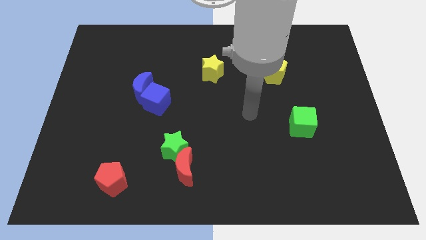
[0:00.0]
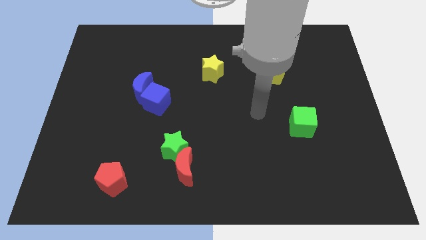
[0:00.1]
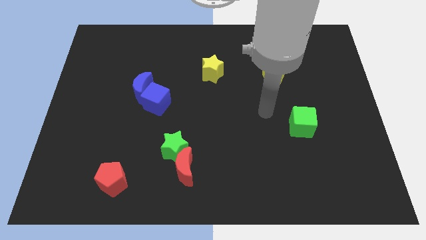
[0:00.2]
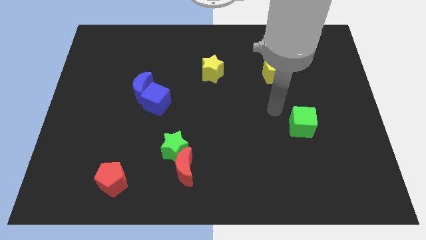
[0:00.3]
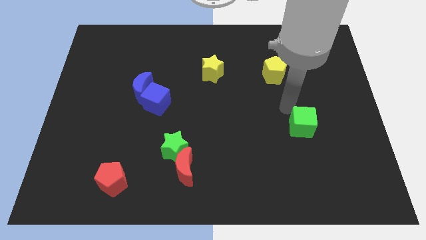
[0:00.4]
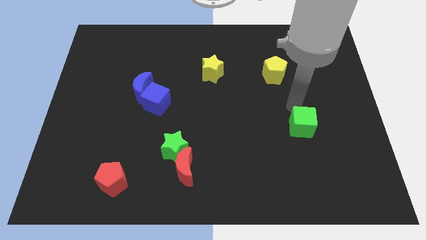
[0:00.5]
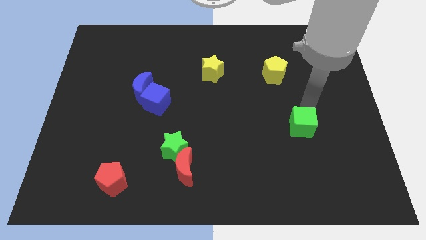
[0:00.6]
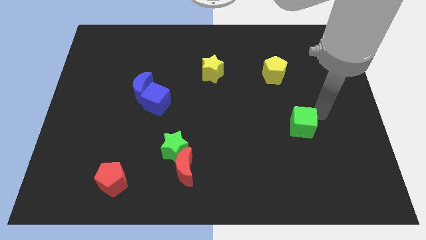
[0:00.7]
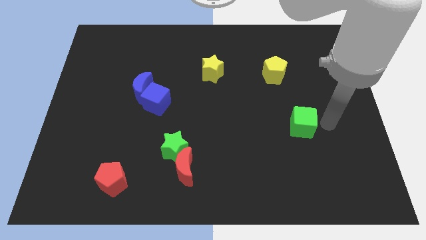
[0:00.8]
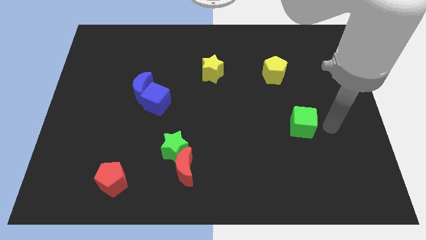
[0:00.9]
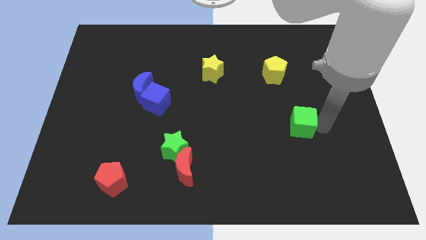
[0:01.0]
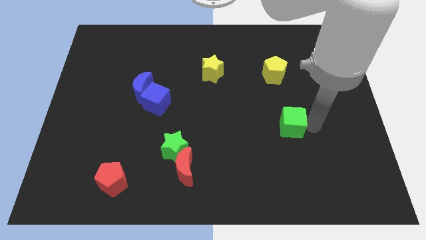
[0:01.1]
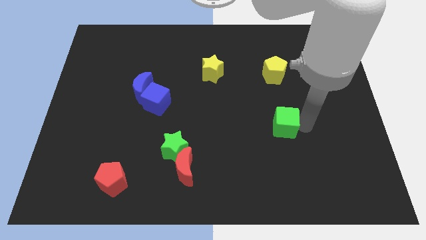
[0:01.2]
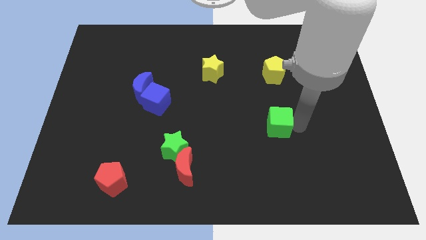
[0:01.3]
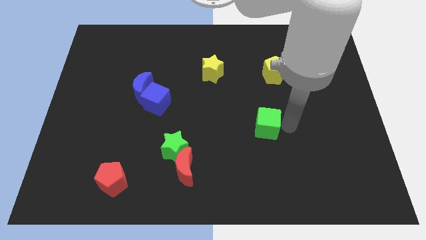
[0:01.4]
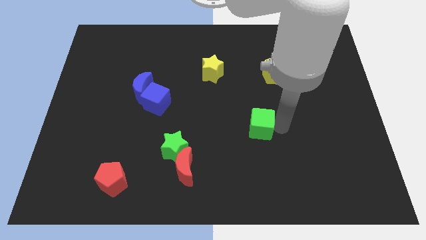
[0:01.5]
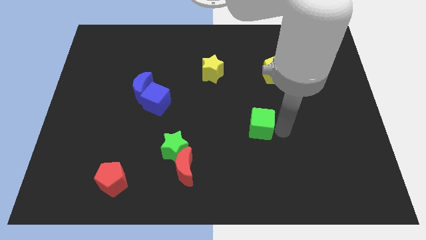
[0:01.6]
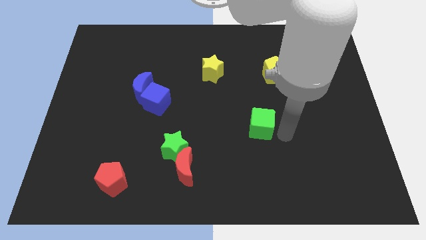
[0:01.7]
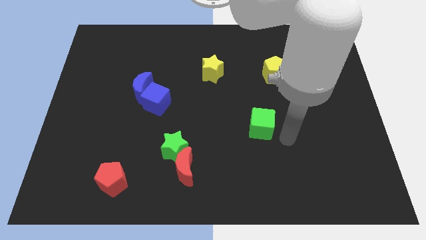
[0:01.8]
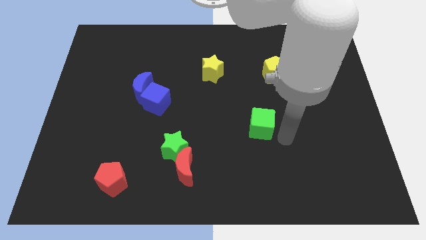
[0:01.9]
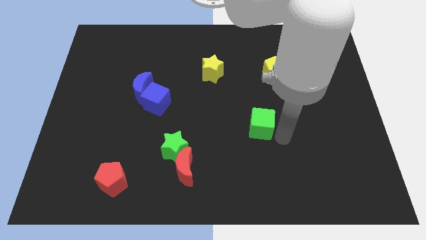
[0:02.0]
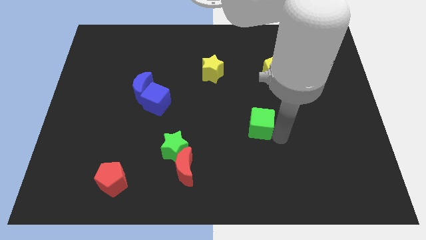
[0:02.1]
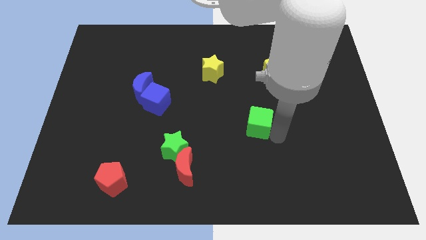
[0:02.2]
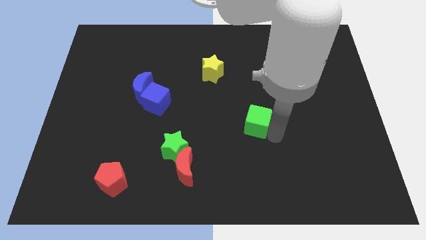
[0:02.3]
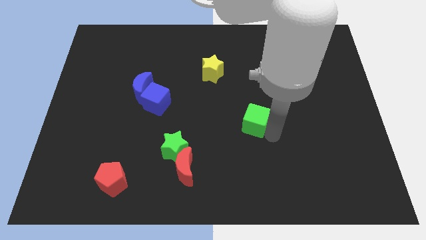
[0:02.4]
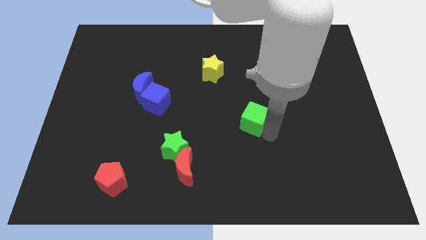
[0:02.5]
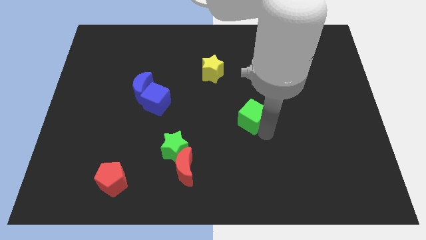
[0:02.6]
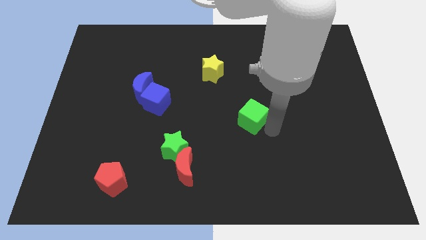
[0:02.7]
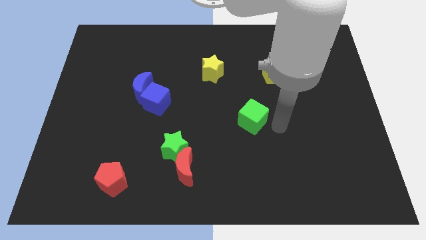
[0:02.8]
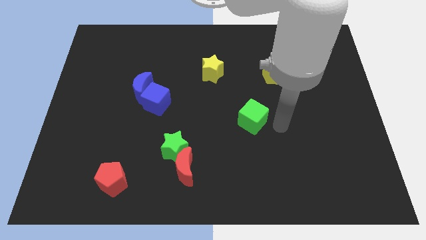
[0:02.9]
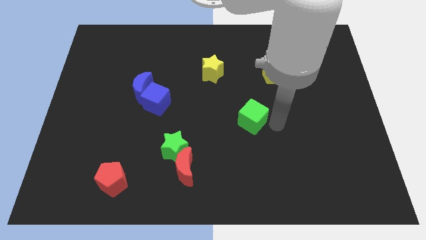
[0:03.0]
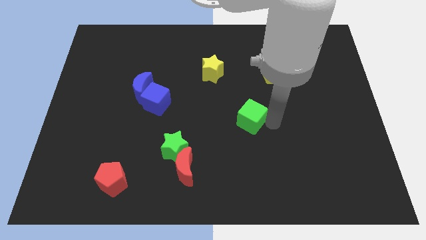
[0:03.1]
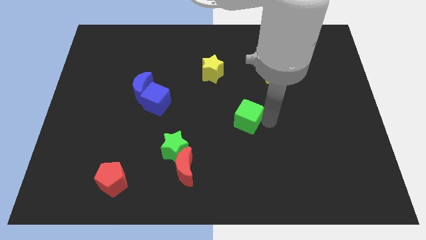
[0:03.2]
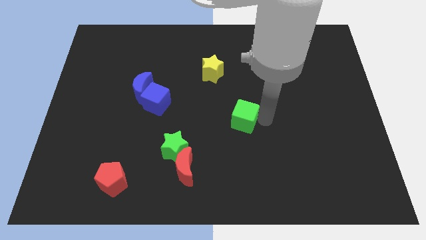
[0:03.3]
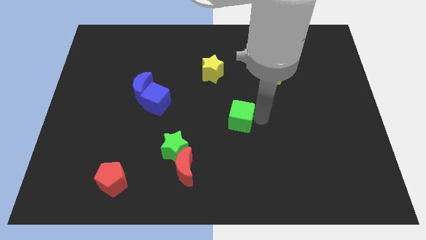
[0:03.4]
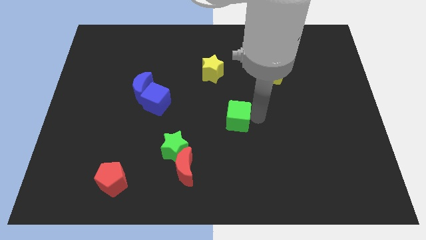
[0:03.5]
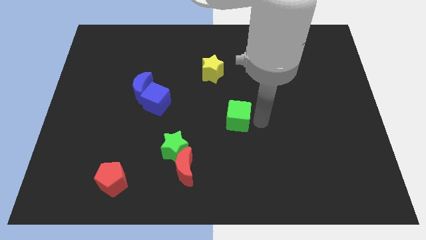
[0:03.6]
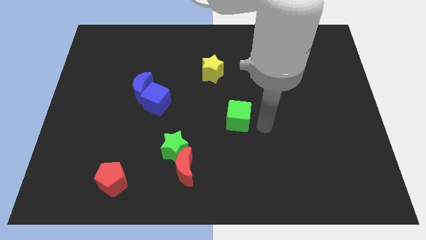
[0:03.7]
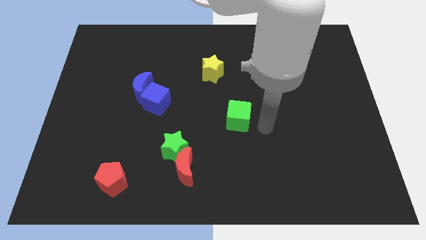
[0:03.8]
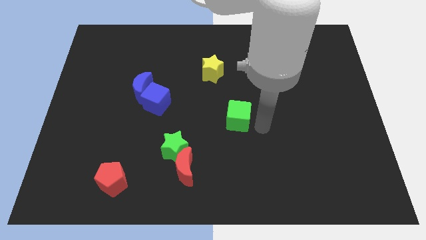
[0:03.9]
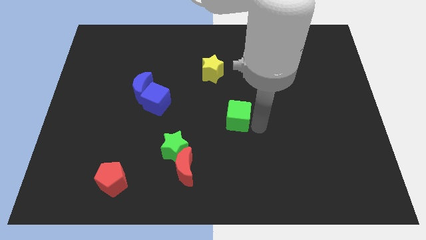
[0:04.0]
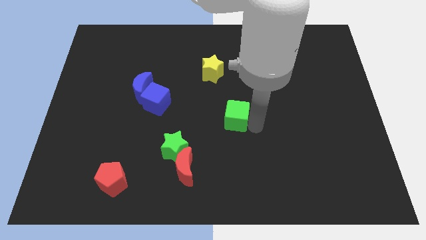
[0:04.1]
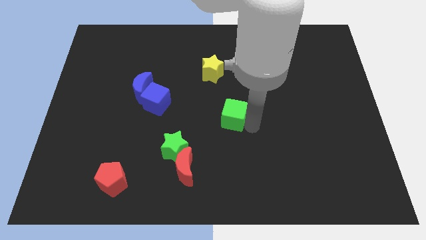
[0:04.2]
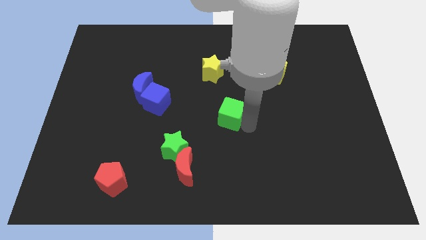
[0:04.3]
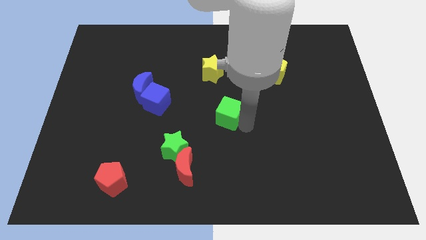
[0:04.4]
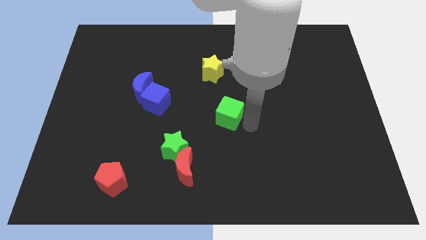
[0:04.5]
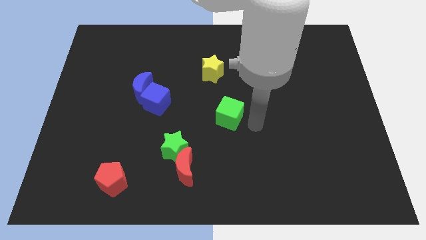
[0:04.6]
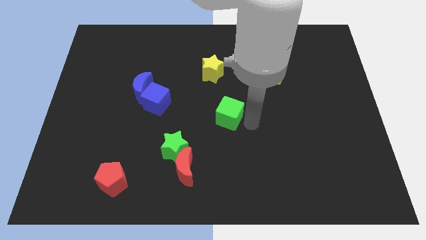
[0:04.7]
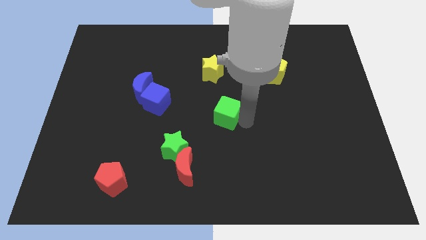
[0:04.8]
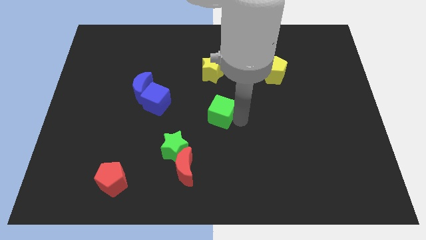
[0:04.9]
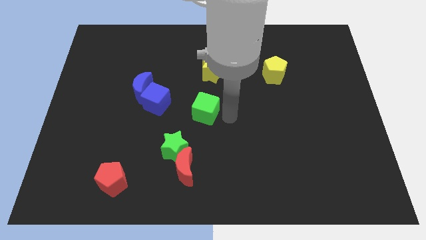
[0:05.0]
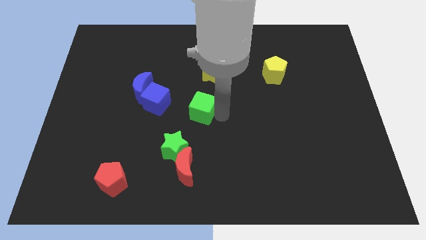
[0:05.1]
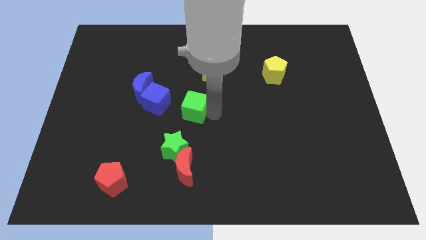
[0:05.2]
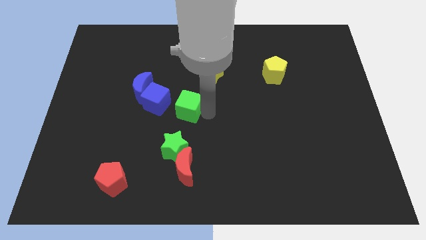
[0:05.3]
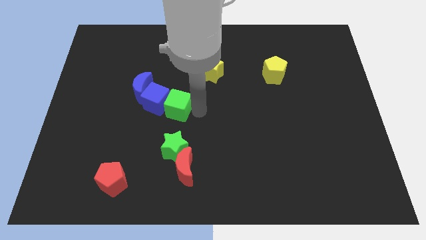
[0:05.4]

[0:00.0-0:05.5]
push the green cube close to the blue cube

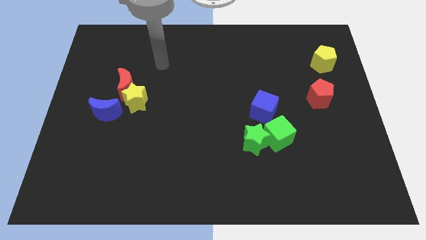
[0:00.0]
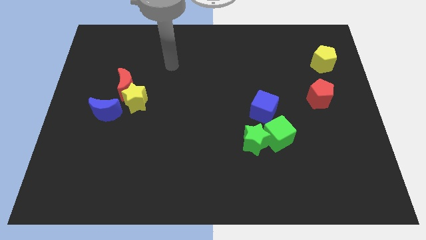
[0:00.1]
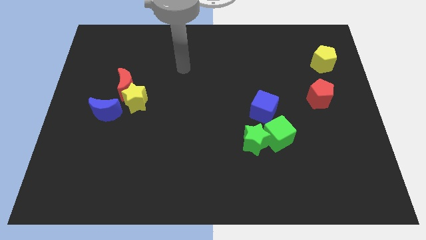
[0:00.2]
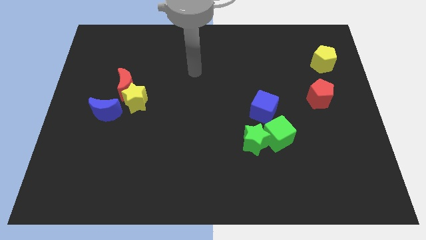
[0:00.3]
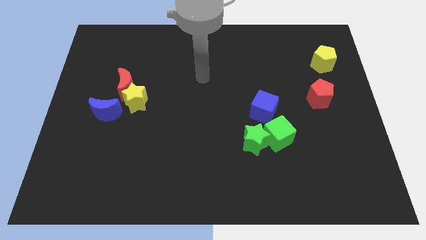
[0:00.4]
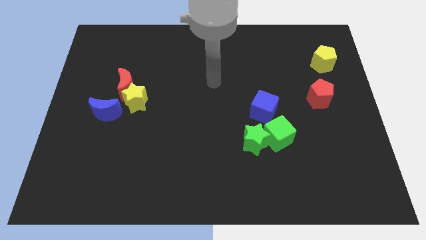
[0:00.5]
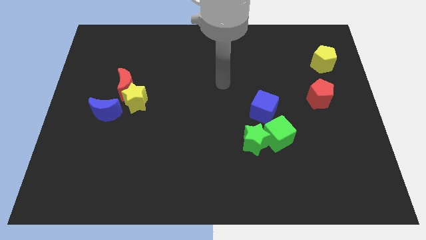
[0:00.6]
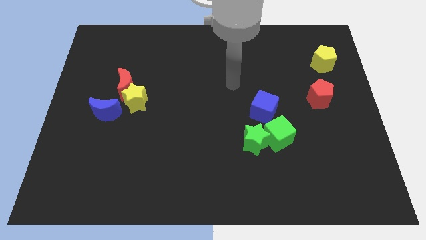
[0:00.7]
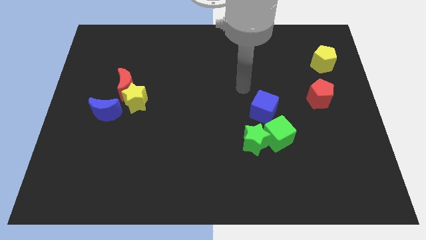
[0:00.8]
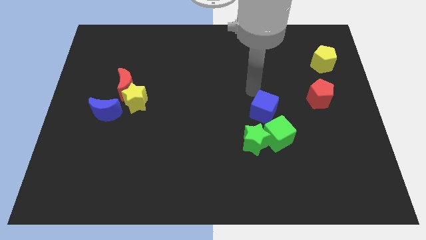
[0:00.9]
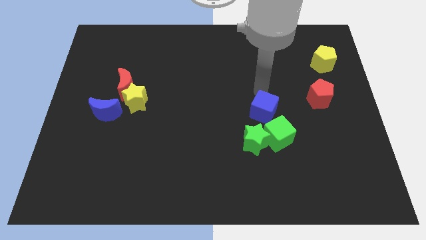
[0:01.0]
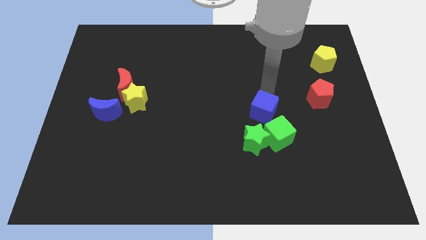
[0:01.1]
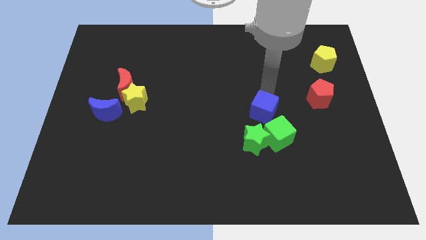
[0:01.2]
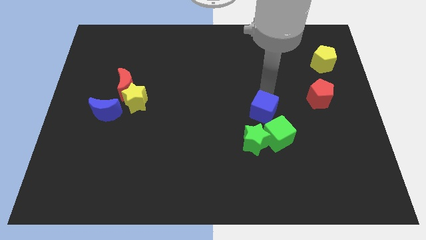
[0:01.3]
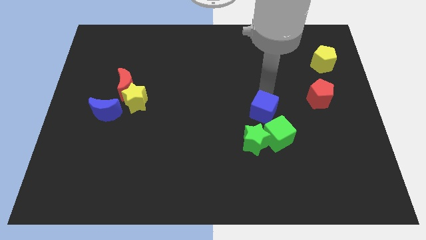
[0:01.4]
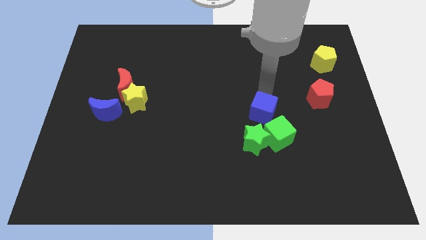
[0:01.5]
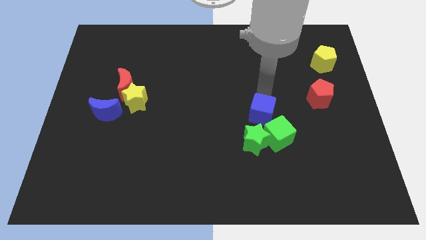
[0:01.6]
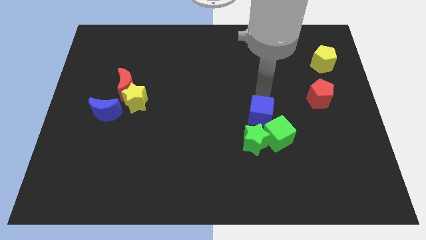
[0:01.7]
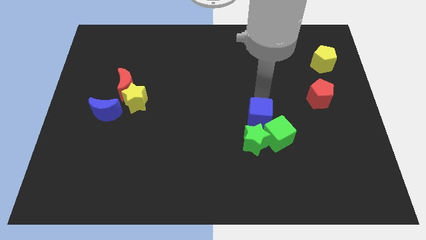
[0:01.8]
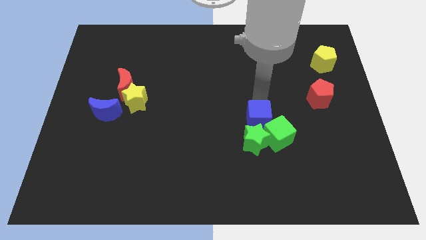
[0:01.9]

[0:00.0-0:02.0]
push the blue cube close to the green star

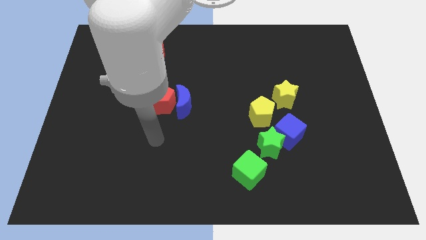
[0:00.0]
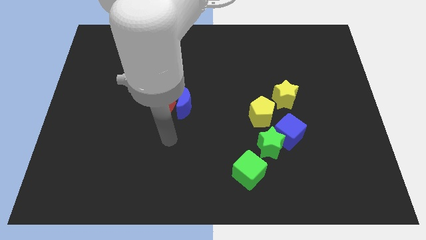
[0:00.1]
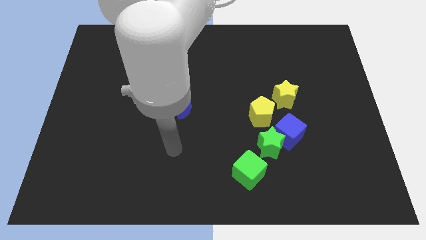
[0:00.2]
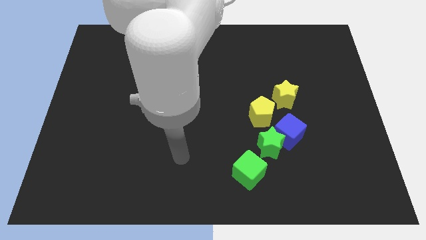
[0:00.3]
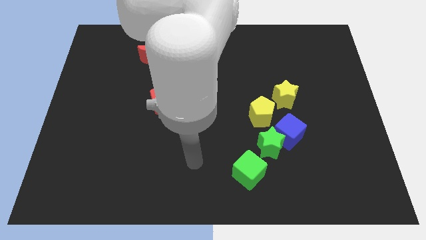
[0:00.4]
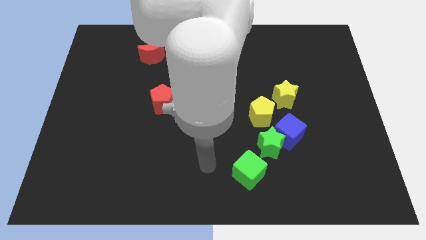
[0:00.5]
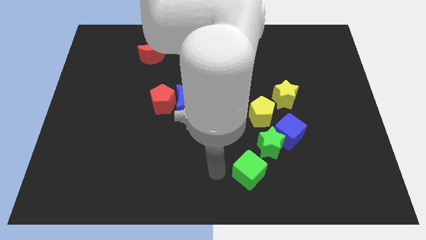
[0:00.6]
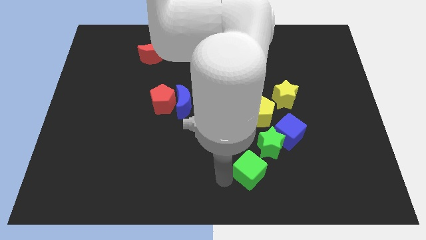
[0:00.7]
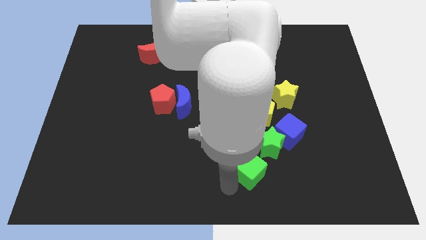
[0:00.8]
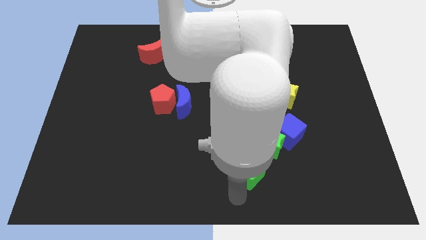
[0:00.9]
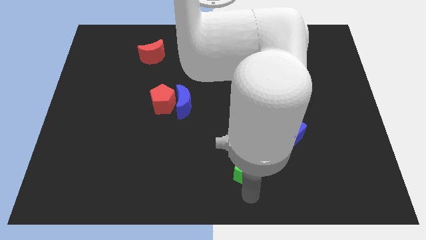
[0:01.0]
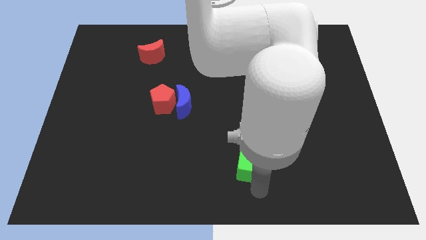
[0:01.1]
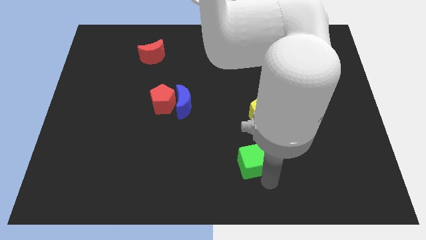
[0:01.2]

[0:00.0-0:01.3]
push the green star towards the green cube
